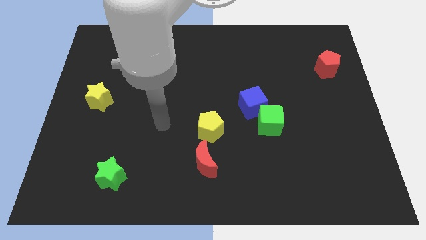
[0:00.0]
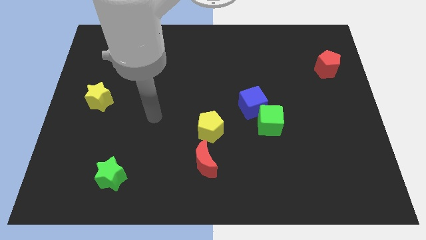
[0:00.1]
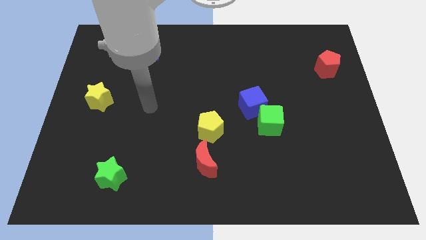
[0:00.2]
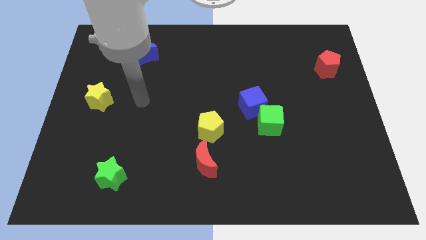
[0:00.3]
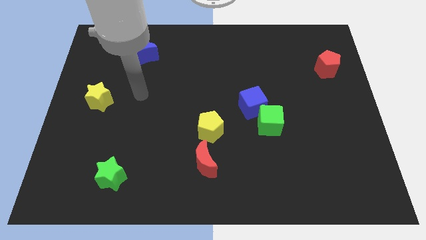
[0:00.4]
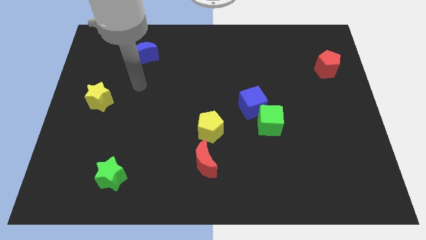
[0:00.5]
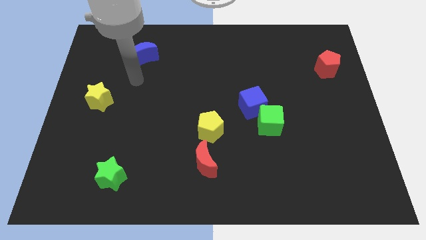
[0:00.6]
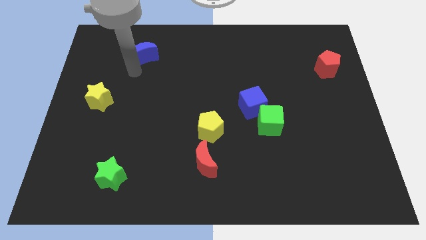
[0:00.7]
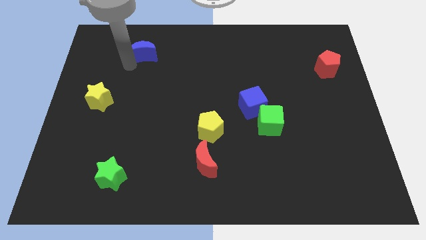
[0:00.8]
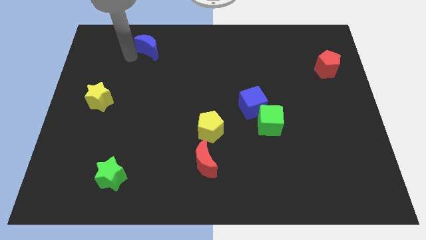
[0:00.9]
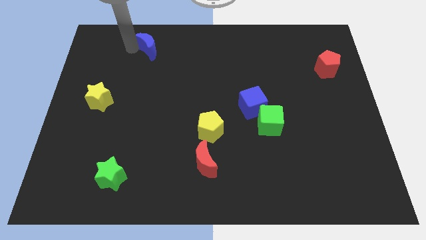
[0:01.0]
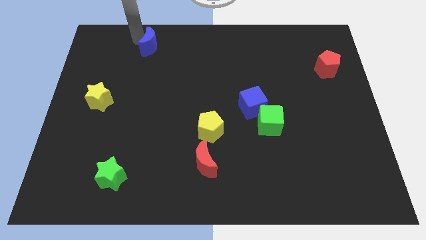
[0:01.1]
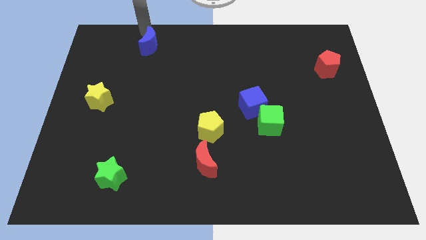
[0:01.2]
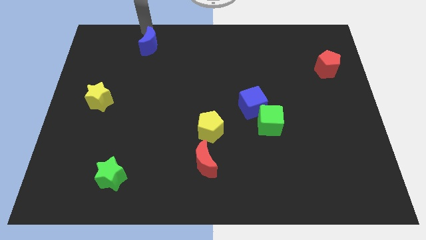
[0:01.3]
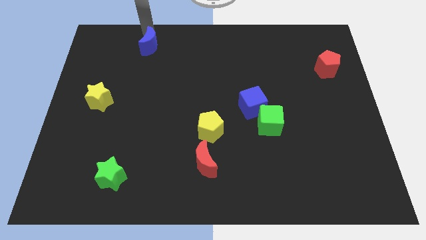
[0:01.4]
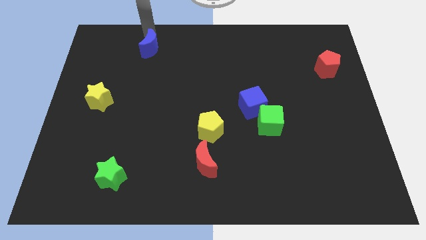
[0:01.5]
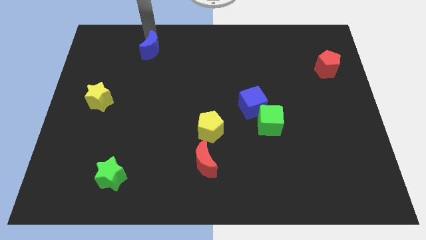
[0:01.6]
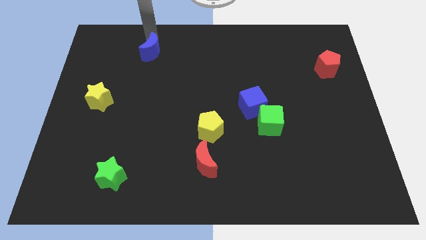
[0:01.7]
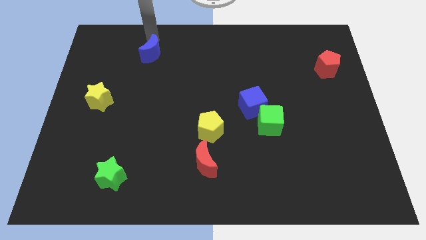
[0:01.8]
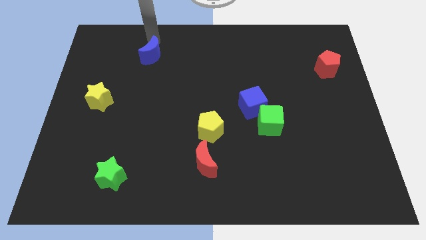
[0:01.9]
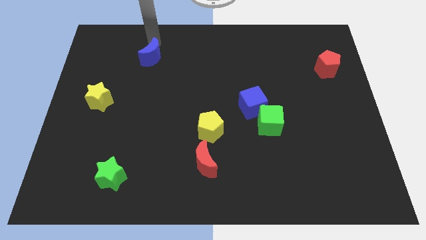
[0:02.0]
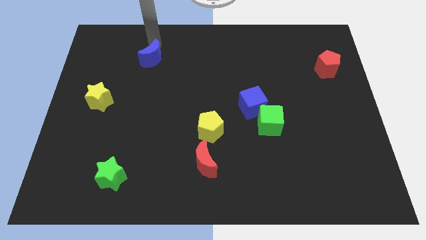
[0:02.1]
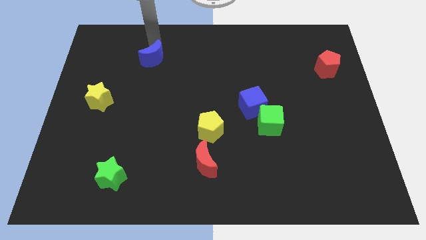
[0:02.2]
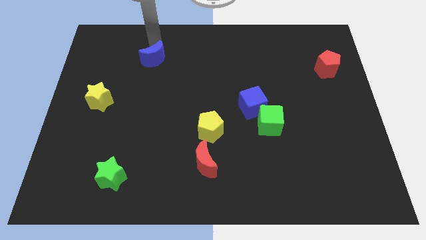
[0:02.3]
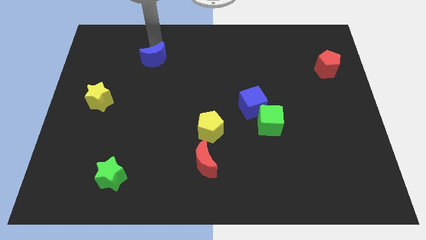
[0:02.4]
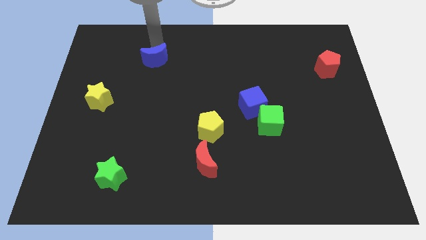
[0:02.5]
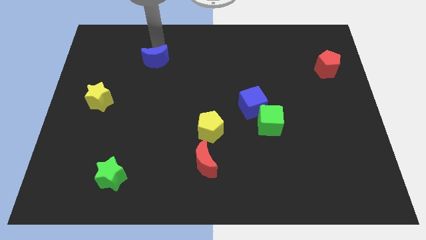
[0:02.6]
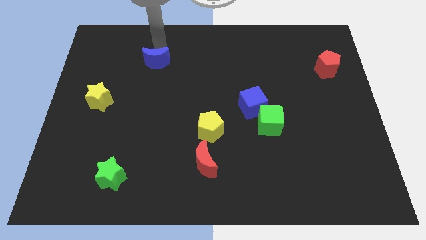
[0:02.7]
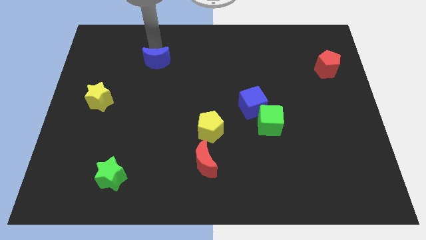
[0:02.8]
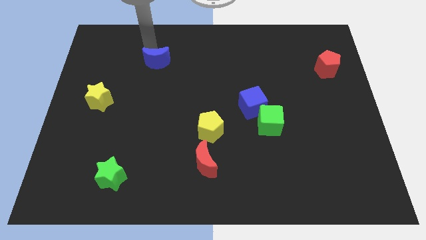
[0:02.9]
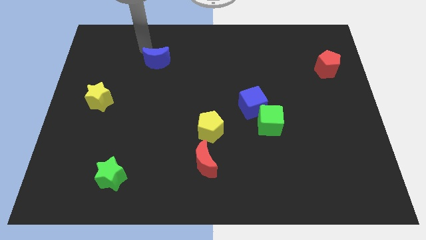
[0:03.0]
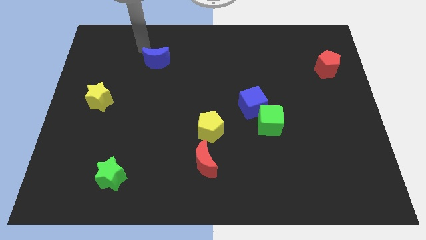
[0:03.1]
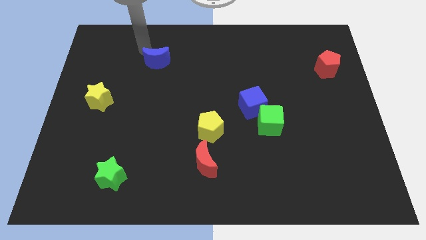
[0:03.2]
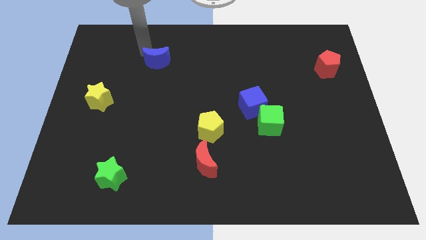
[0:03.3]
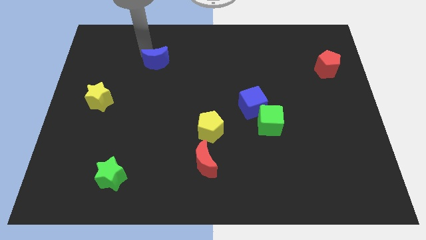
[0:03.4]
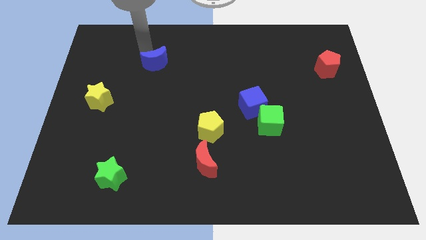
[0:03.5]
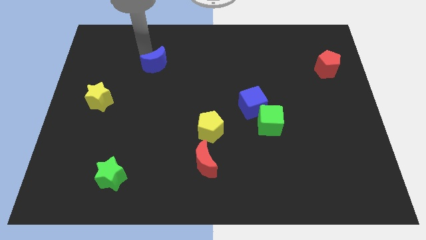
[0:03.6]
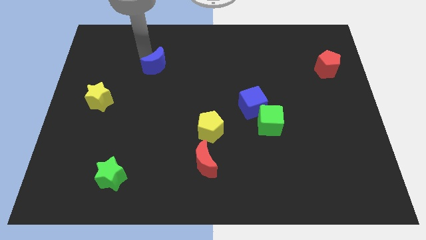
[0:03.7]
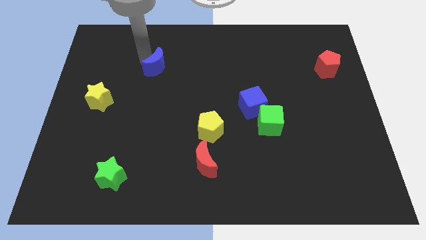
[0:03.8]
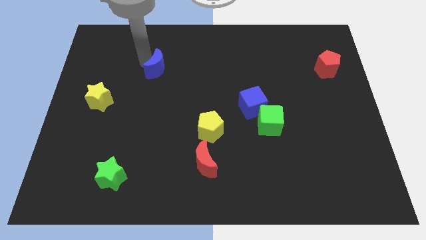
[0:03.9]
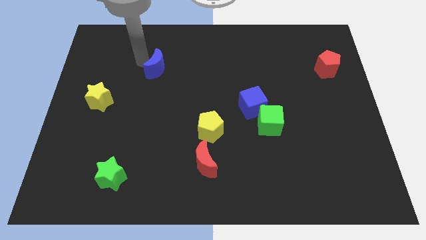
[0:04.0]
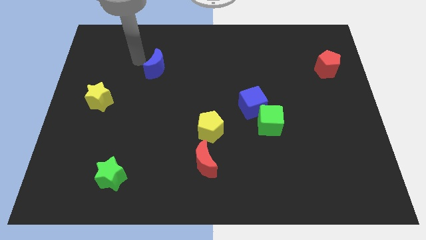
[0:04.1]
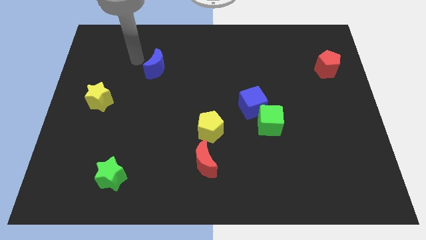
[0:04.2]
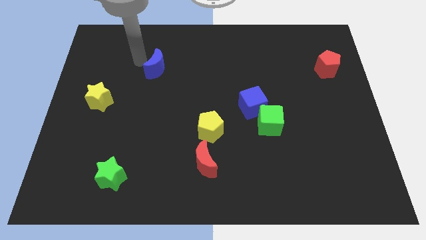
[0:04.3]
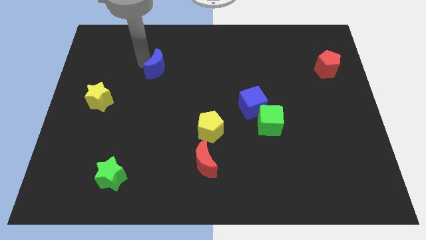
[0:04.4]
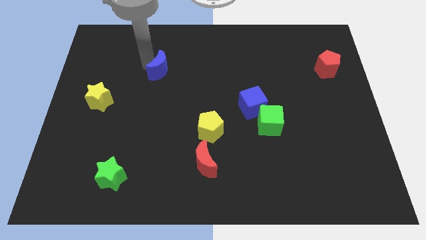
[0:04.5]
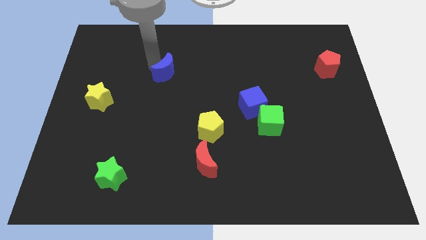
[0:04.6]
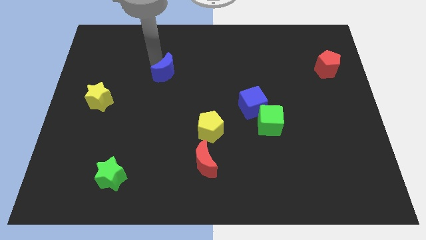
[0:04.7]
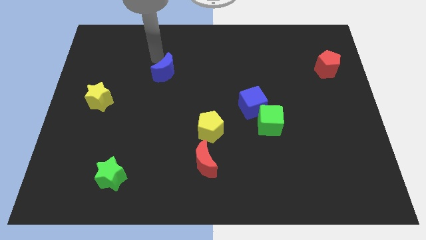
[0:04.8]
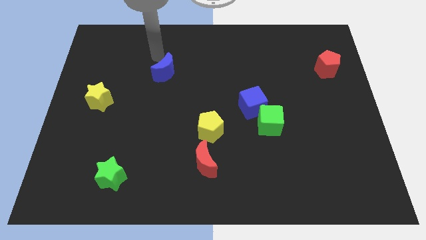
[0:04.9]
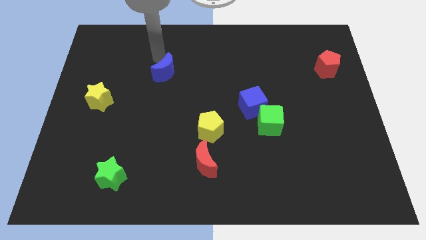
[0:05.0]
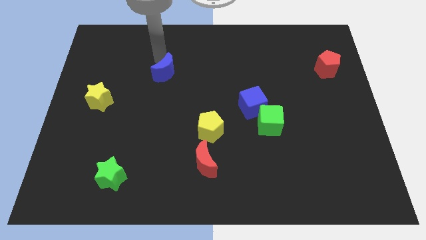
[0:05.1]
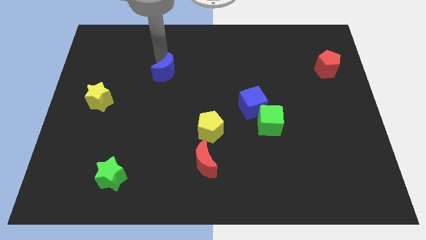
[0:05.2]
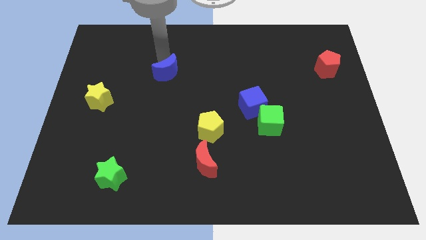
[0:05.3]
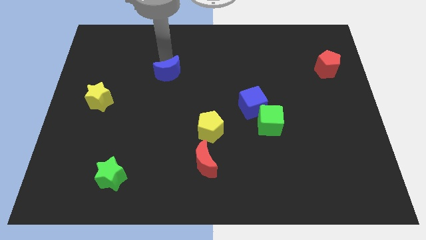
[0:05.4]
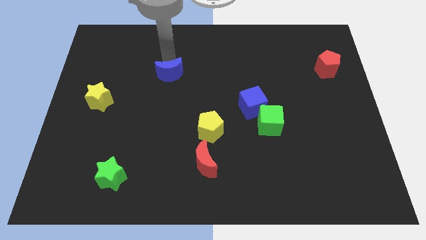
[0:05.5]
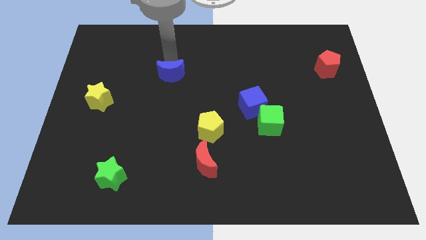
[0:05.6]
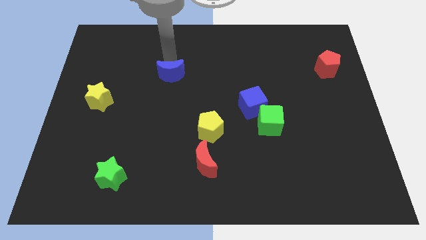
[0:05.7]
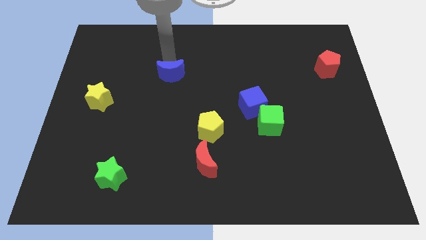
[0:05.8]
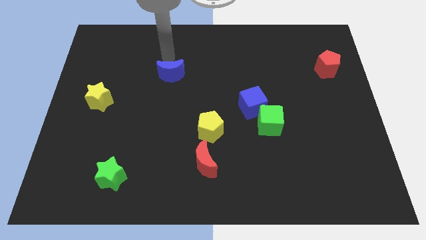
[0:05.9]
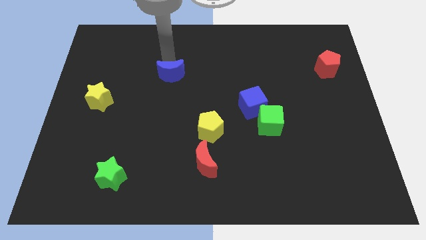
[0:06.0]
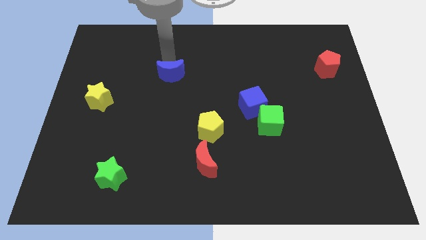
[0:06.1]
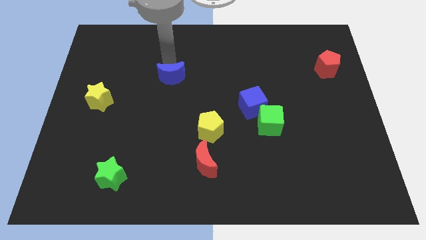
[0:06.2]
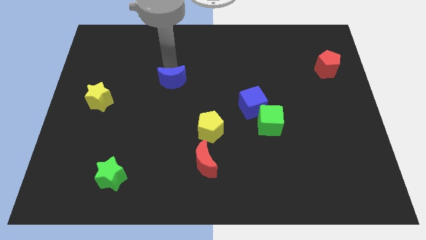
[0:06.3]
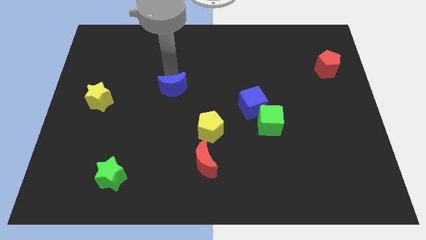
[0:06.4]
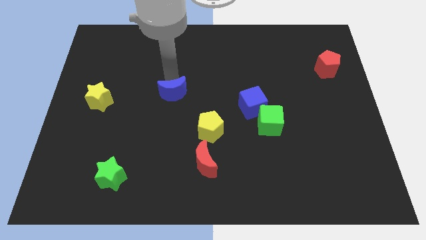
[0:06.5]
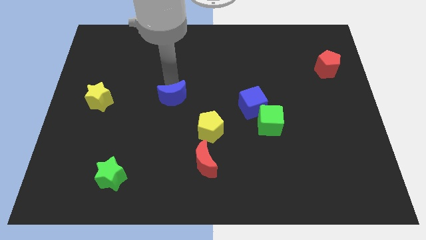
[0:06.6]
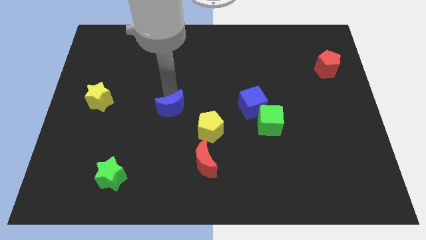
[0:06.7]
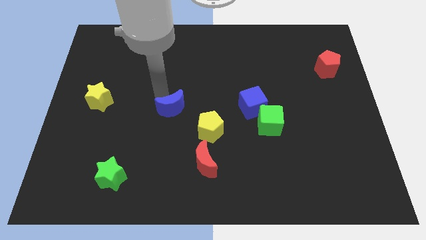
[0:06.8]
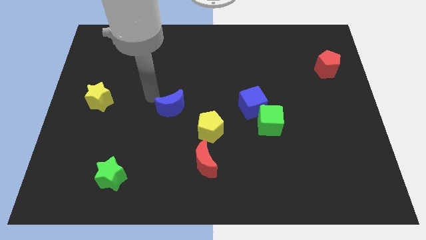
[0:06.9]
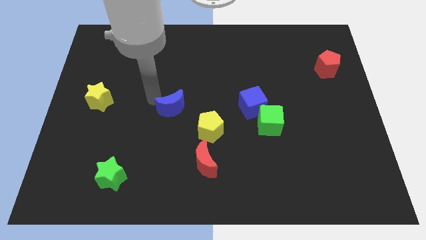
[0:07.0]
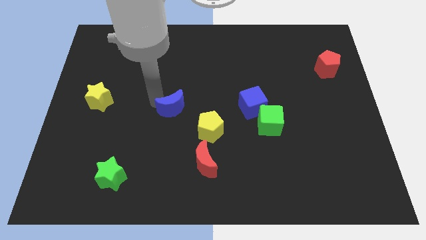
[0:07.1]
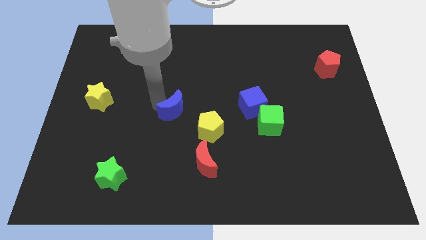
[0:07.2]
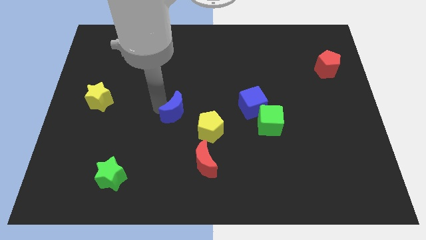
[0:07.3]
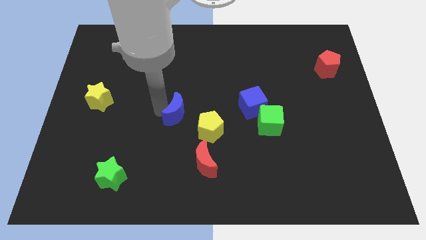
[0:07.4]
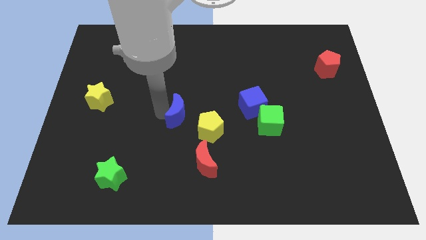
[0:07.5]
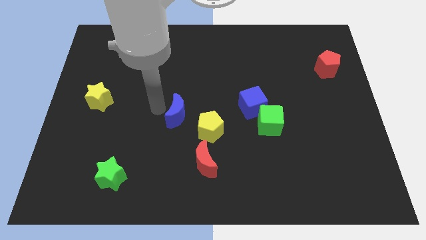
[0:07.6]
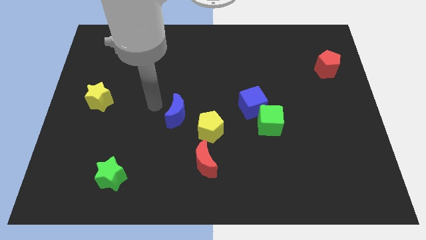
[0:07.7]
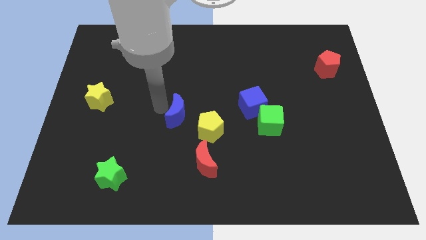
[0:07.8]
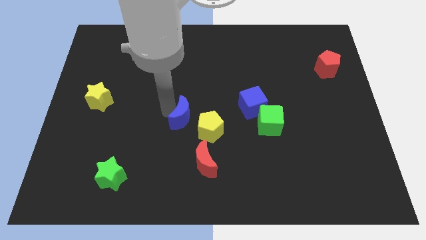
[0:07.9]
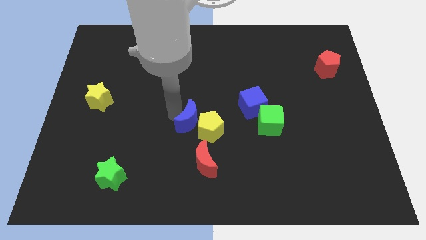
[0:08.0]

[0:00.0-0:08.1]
slide the blue moon close to the yellow pentagon
